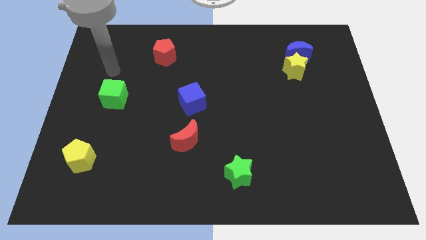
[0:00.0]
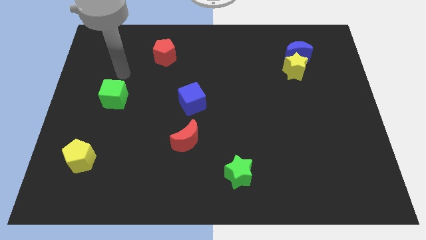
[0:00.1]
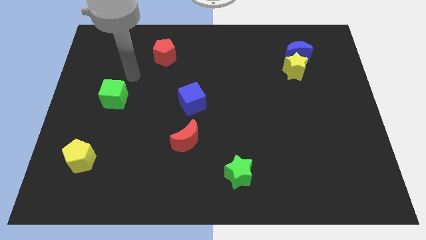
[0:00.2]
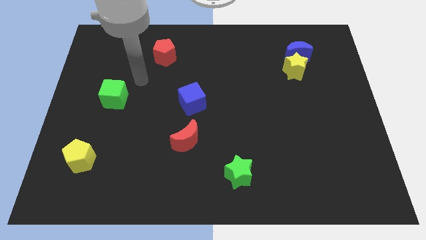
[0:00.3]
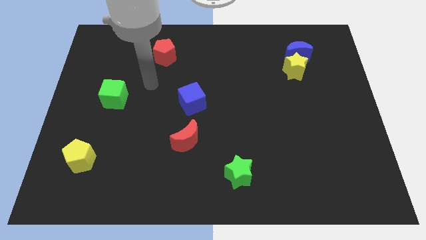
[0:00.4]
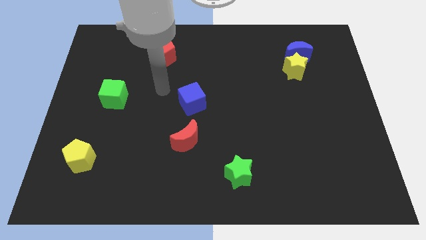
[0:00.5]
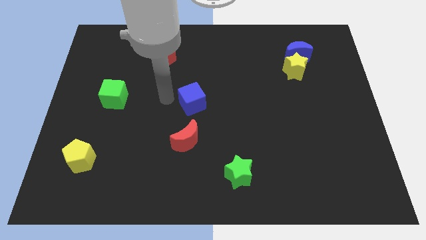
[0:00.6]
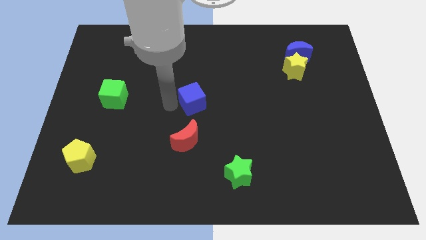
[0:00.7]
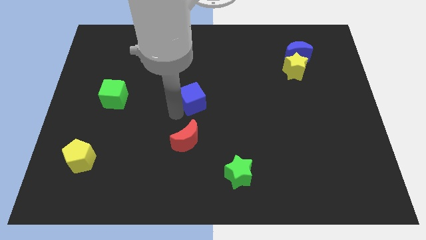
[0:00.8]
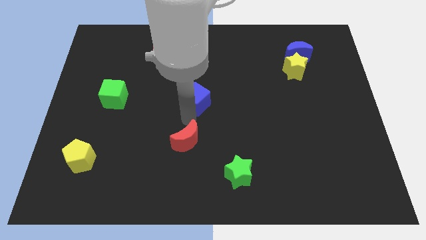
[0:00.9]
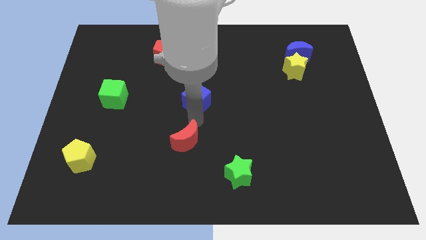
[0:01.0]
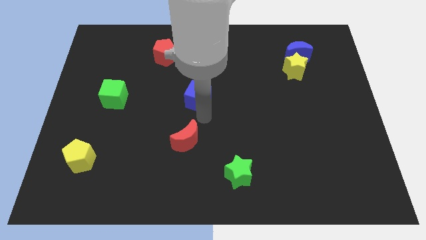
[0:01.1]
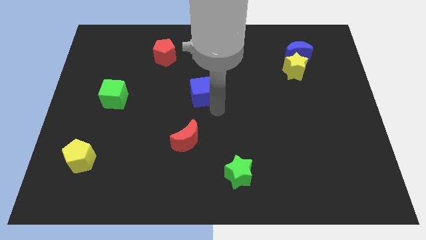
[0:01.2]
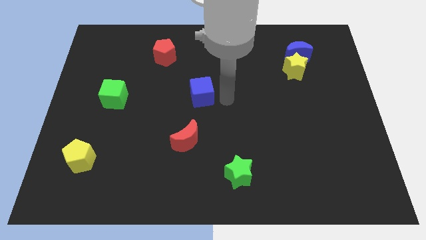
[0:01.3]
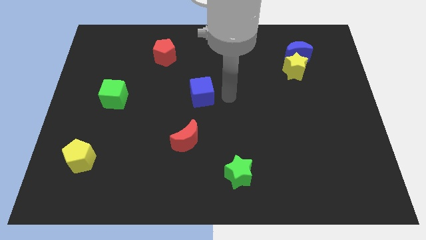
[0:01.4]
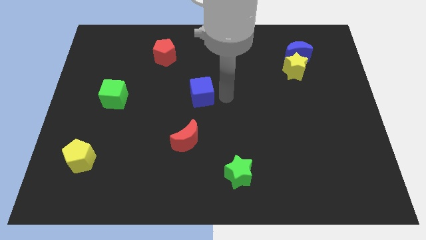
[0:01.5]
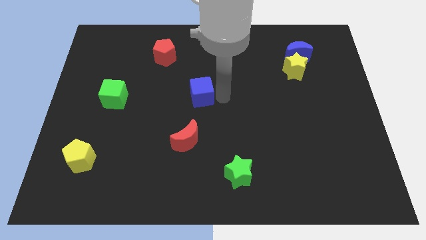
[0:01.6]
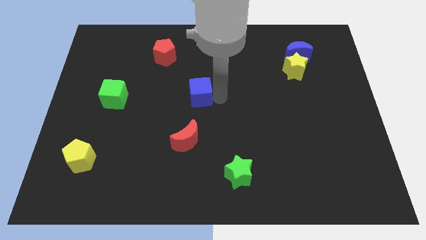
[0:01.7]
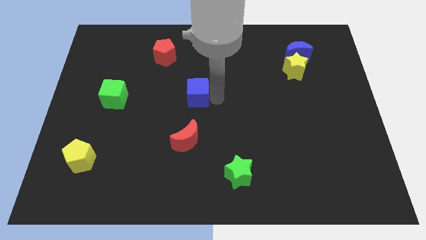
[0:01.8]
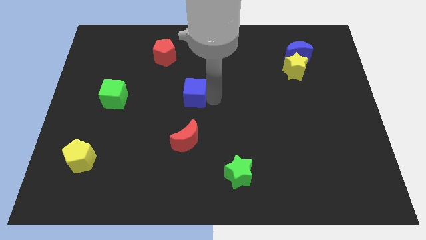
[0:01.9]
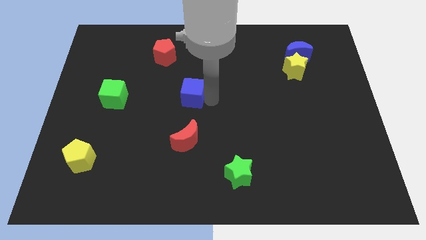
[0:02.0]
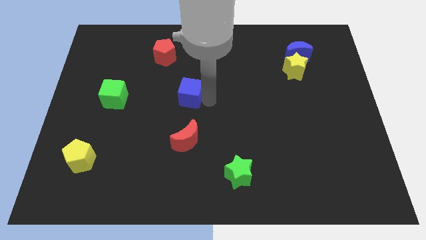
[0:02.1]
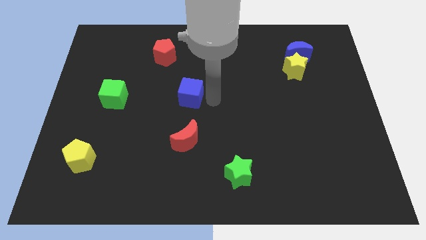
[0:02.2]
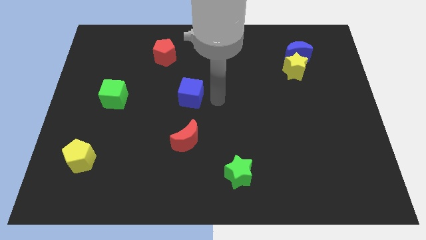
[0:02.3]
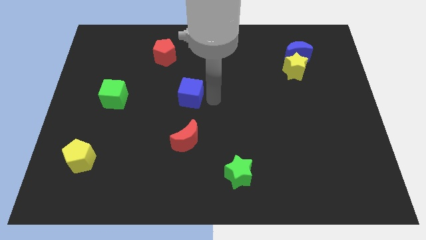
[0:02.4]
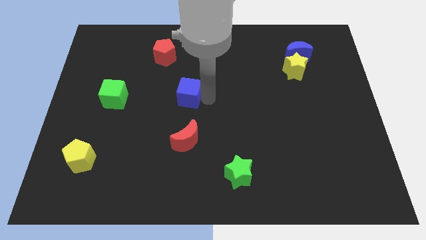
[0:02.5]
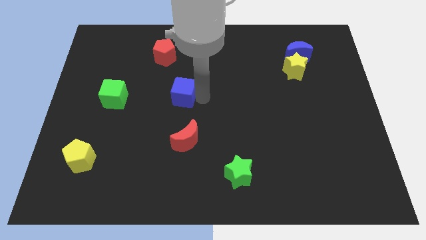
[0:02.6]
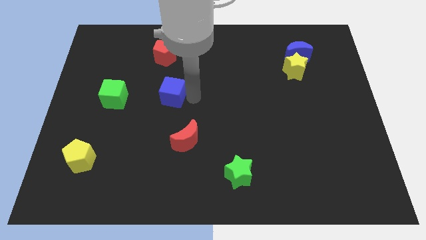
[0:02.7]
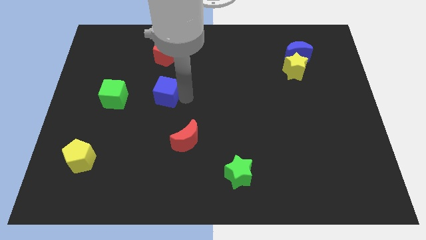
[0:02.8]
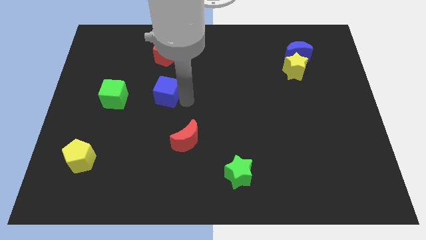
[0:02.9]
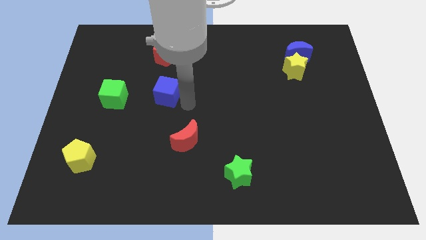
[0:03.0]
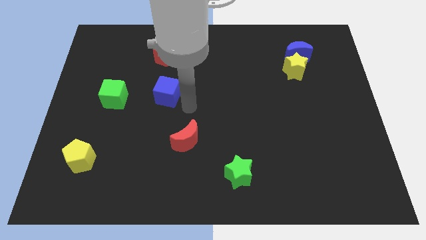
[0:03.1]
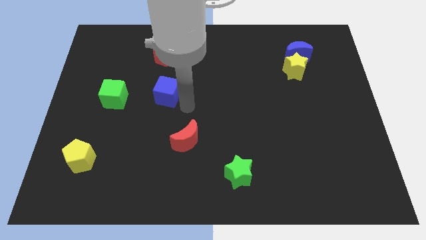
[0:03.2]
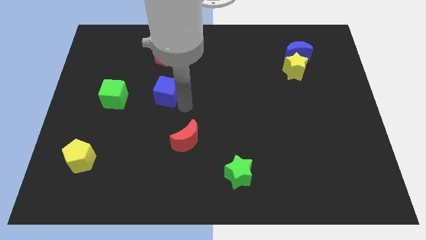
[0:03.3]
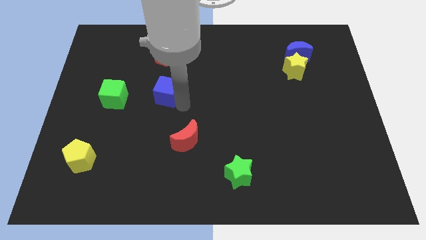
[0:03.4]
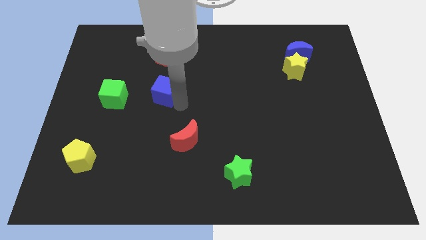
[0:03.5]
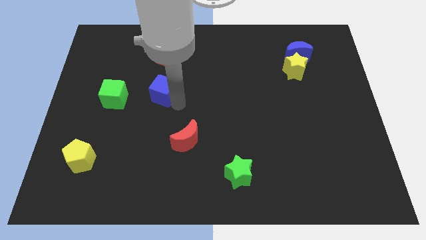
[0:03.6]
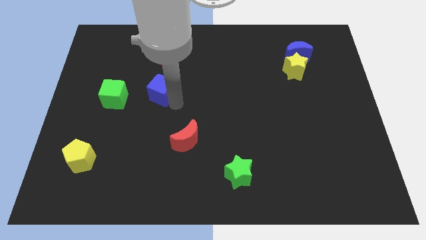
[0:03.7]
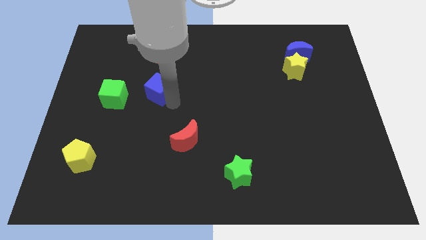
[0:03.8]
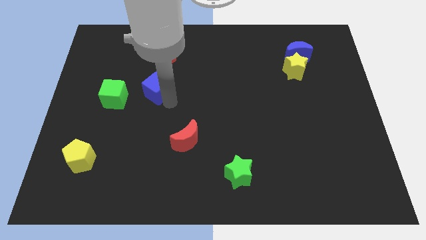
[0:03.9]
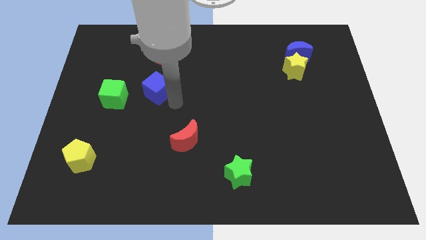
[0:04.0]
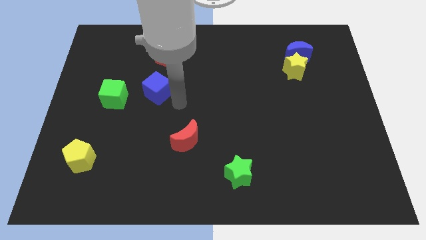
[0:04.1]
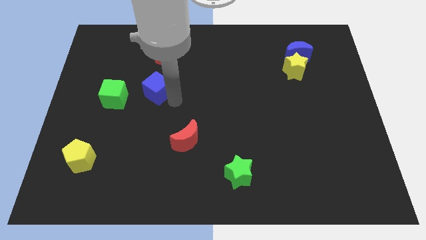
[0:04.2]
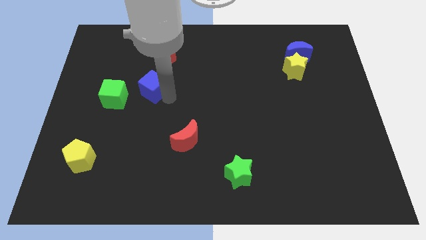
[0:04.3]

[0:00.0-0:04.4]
push the blue cube to the top right of the green cube

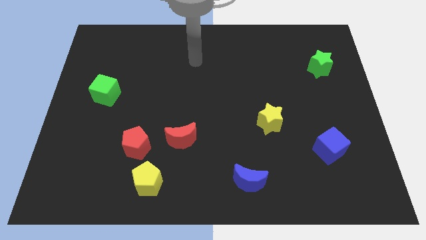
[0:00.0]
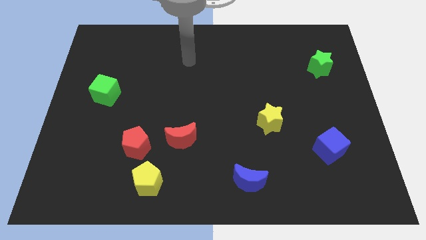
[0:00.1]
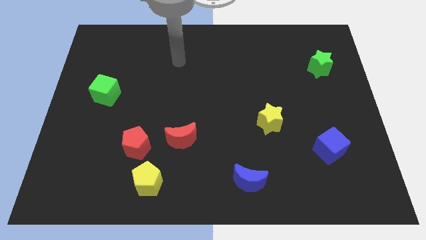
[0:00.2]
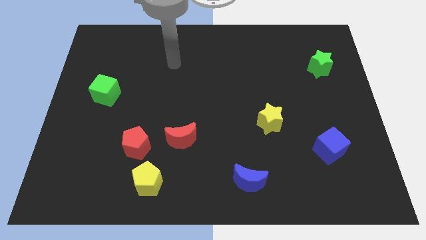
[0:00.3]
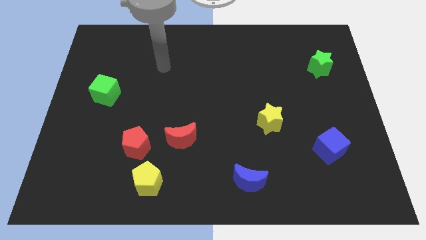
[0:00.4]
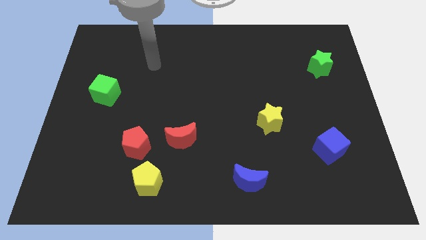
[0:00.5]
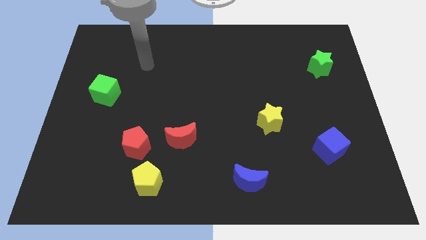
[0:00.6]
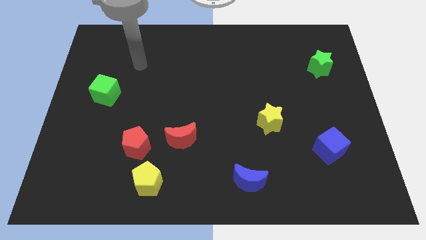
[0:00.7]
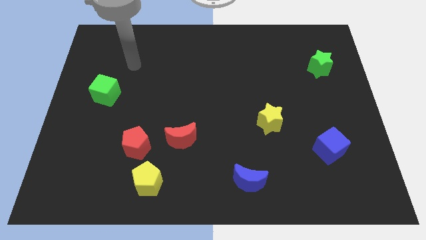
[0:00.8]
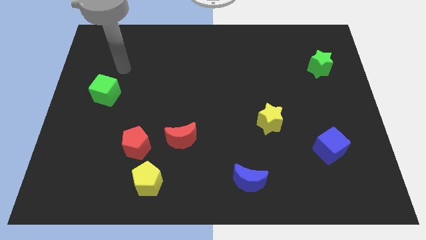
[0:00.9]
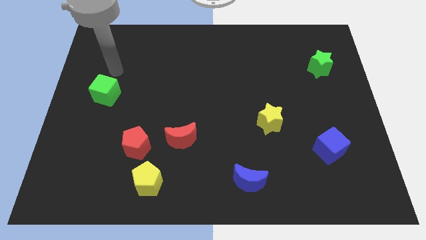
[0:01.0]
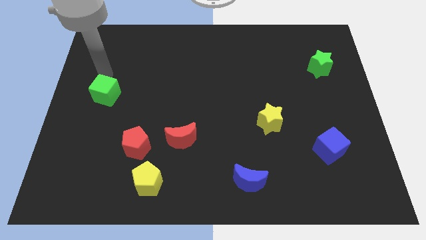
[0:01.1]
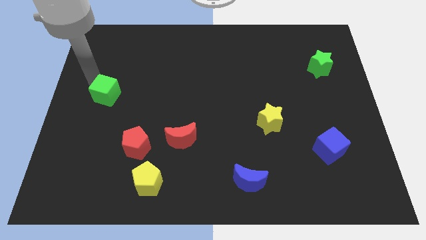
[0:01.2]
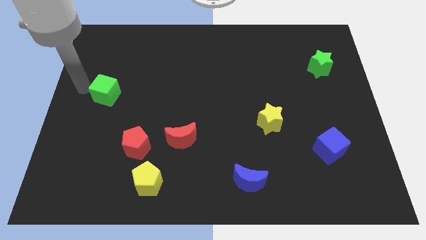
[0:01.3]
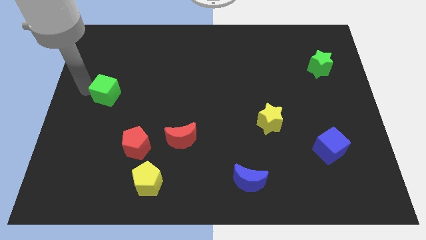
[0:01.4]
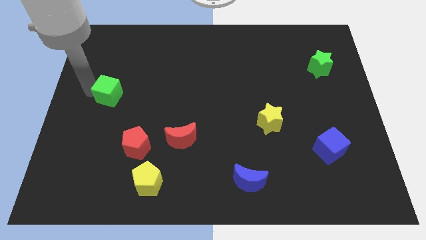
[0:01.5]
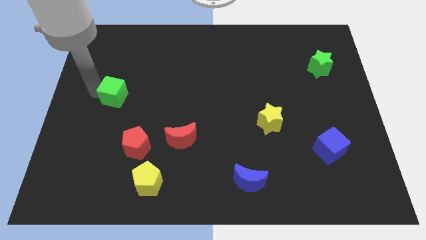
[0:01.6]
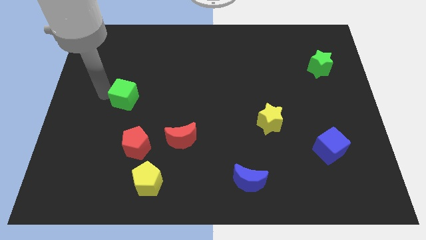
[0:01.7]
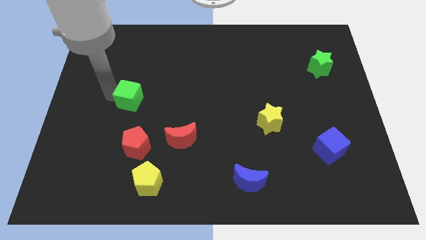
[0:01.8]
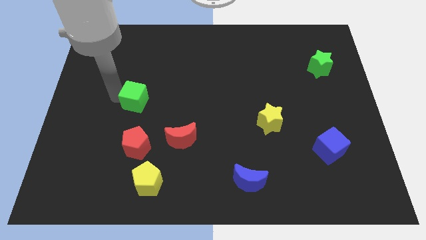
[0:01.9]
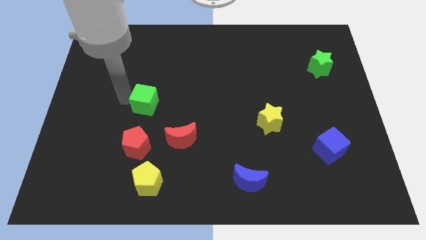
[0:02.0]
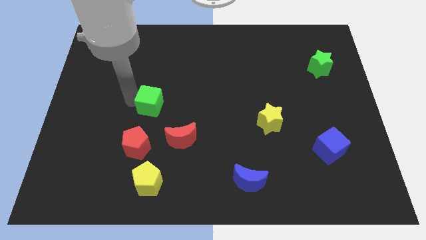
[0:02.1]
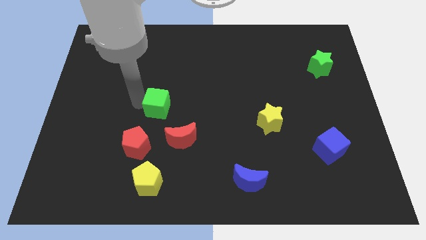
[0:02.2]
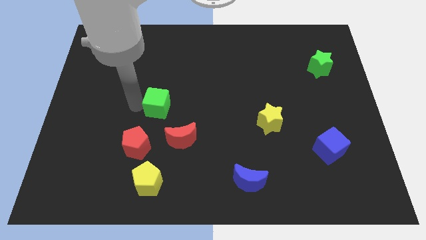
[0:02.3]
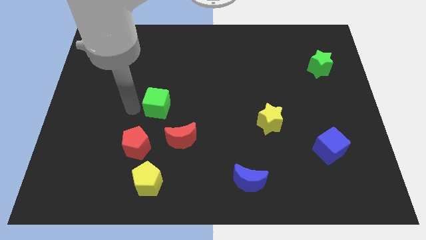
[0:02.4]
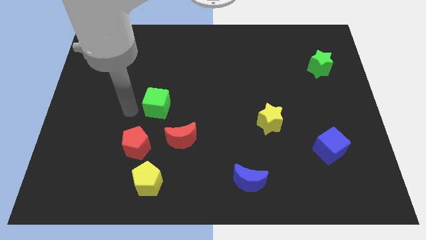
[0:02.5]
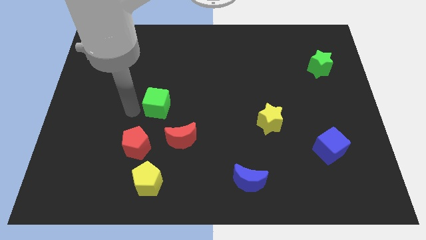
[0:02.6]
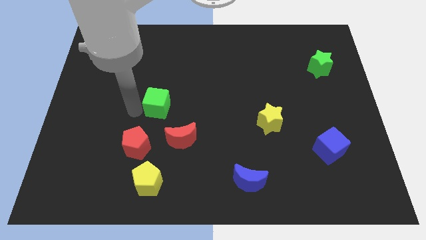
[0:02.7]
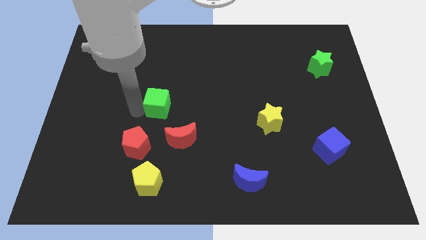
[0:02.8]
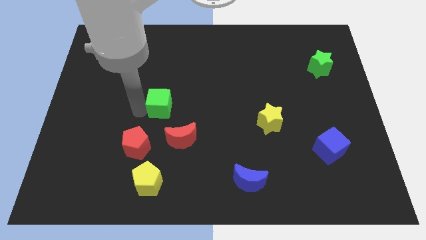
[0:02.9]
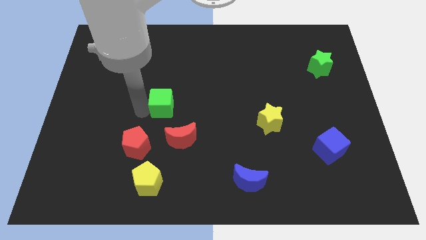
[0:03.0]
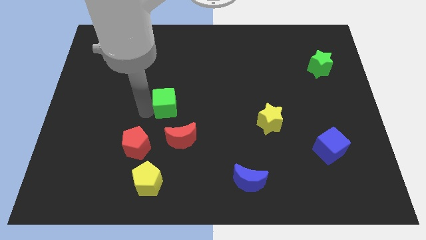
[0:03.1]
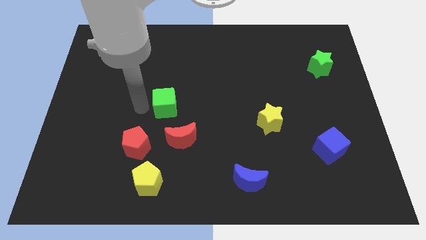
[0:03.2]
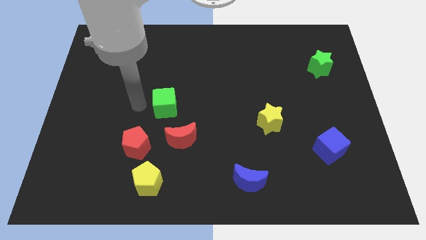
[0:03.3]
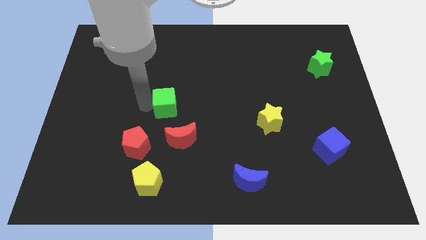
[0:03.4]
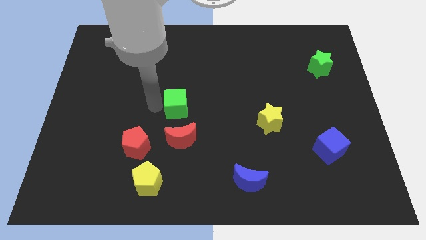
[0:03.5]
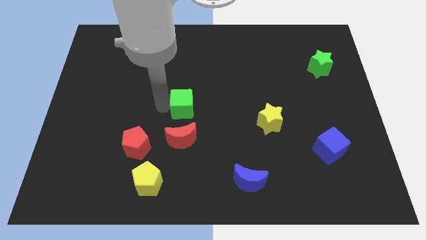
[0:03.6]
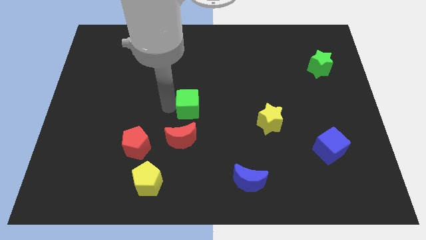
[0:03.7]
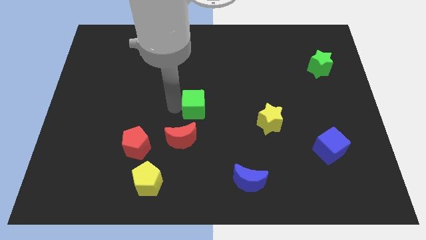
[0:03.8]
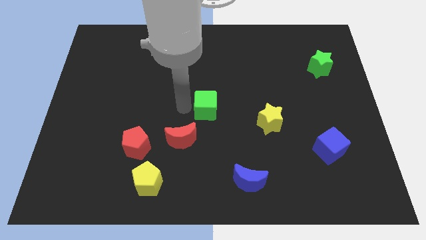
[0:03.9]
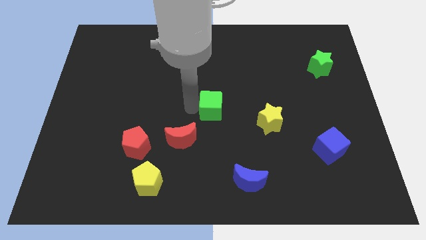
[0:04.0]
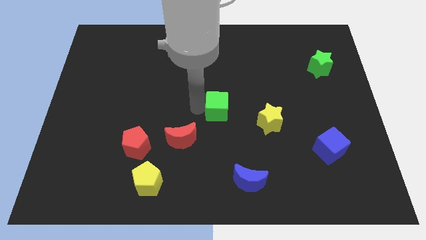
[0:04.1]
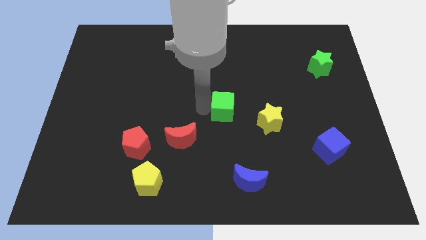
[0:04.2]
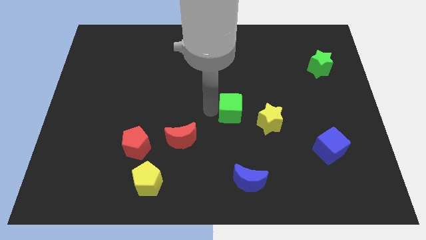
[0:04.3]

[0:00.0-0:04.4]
slide the green cube to the top left of the yellow star
